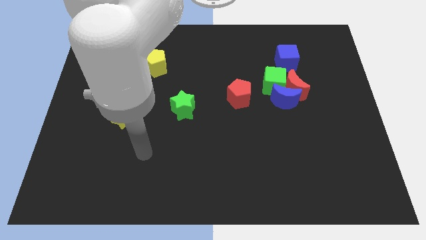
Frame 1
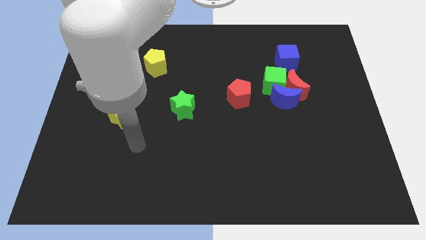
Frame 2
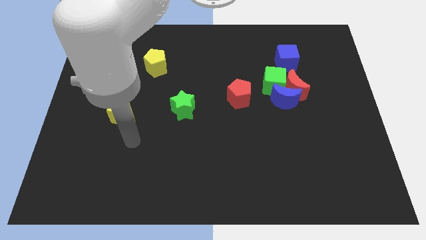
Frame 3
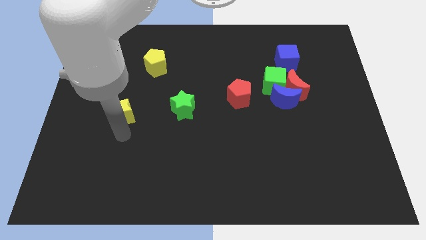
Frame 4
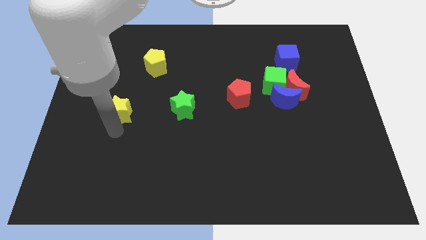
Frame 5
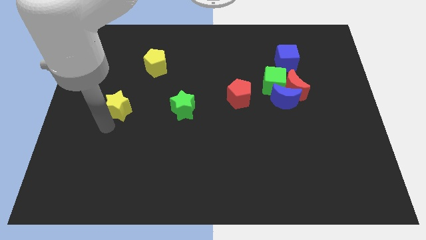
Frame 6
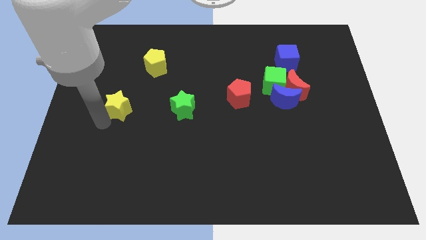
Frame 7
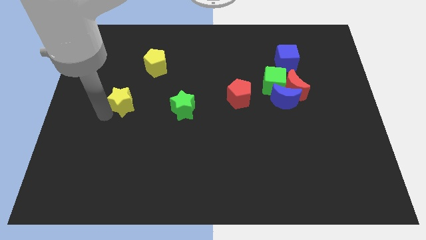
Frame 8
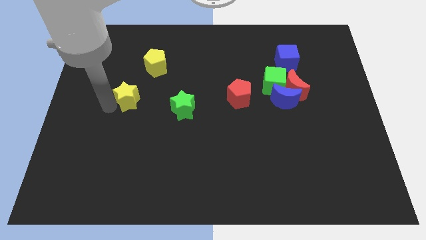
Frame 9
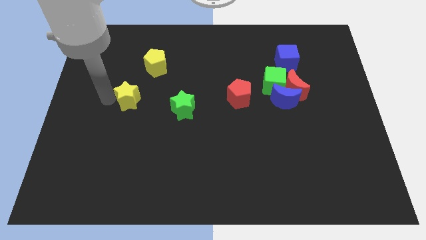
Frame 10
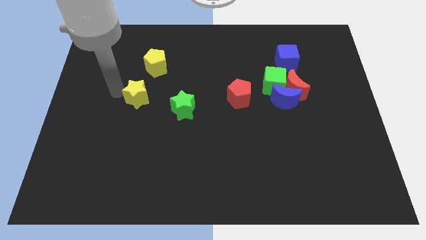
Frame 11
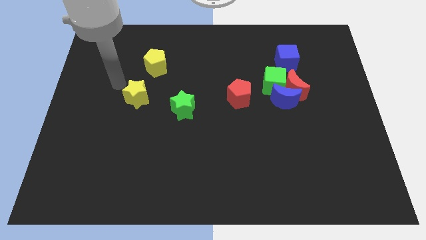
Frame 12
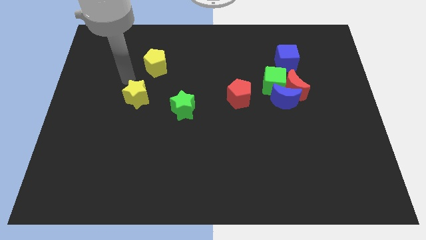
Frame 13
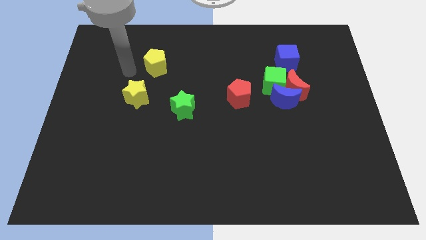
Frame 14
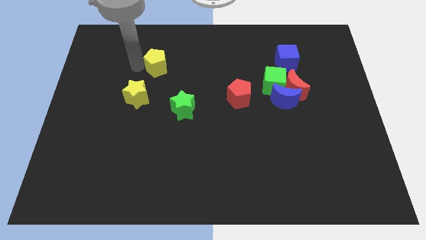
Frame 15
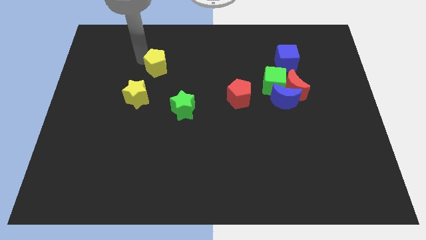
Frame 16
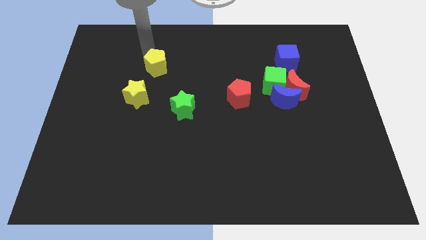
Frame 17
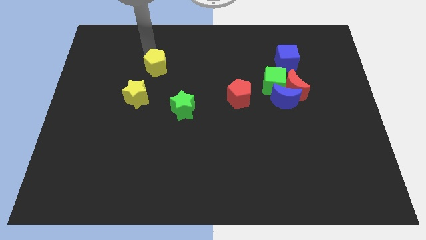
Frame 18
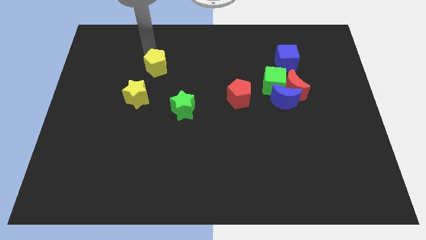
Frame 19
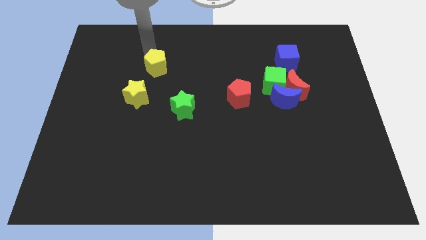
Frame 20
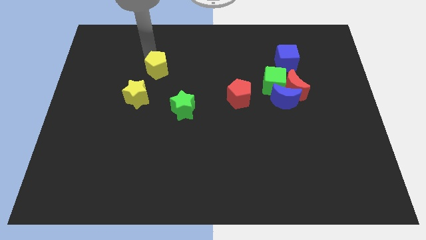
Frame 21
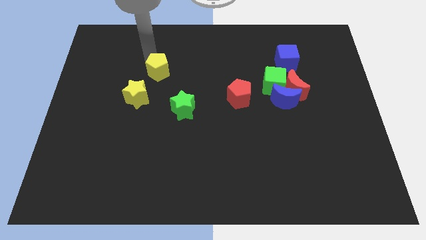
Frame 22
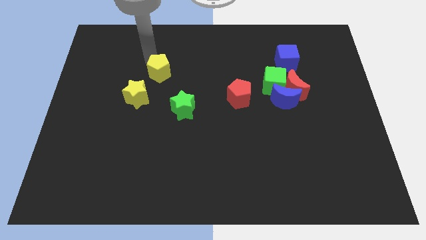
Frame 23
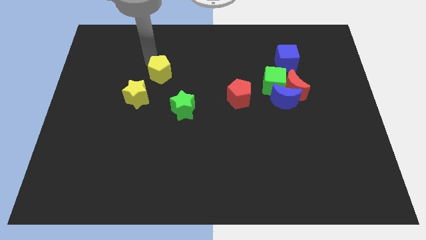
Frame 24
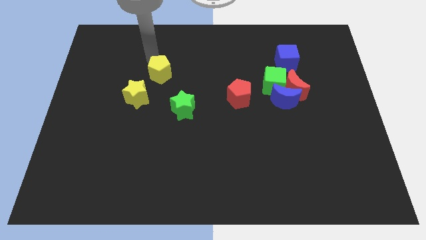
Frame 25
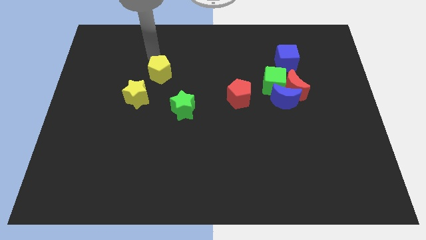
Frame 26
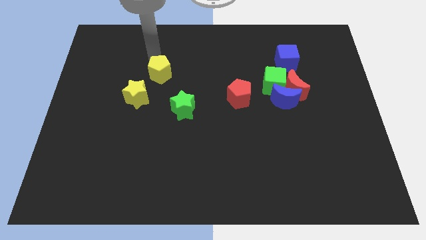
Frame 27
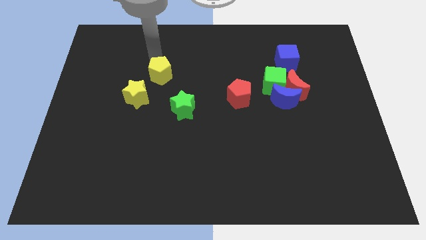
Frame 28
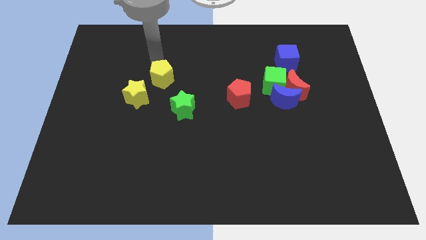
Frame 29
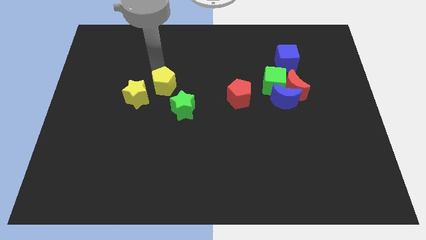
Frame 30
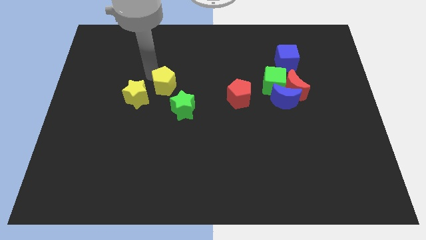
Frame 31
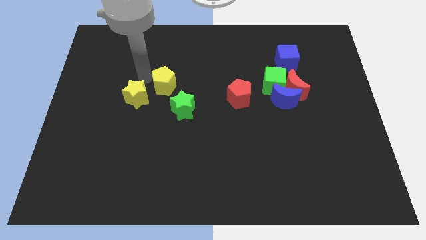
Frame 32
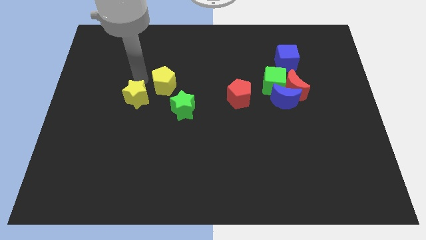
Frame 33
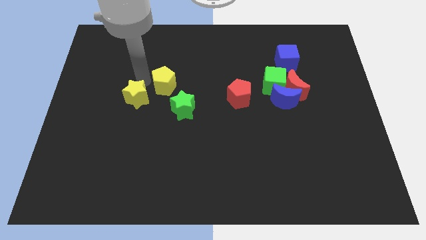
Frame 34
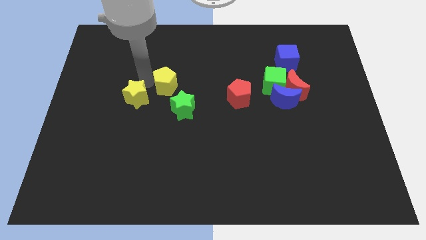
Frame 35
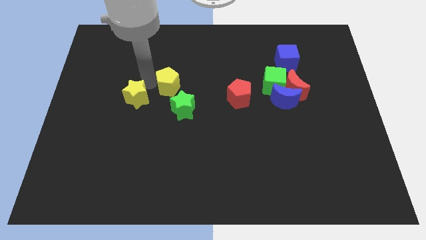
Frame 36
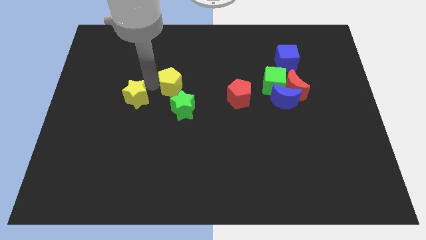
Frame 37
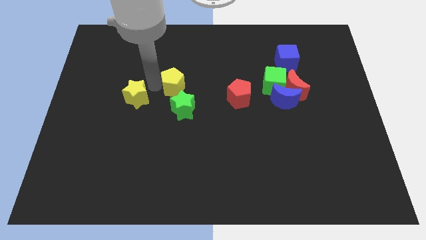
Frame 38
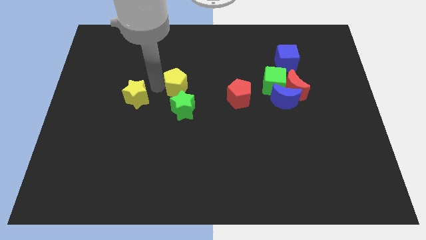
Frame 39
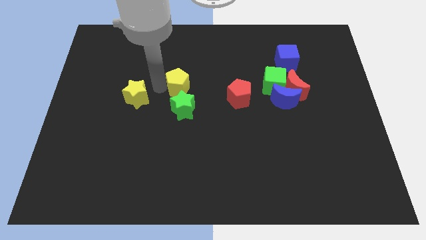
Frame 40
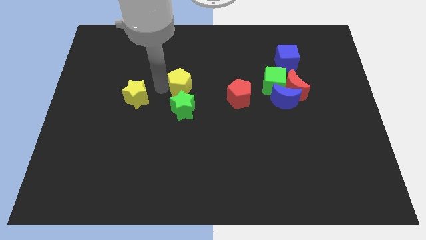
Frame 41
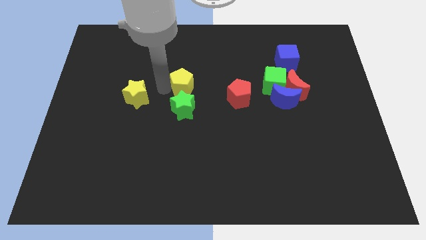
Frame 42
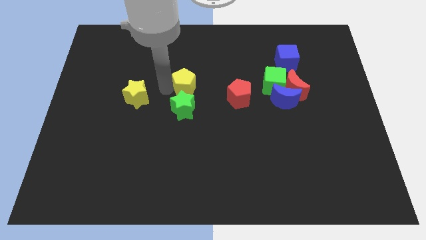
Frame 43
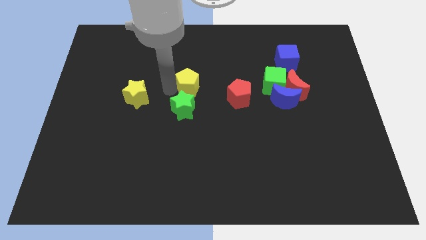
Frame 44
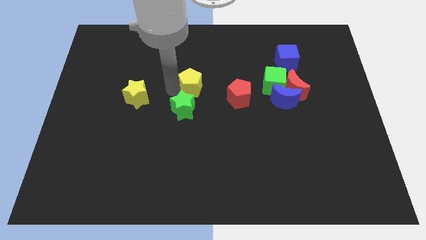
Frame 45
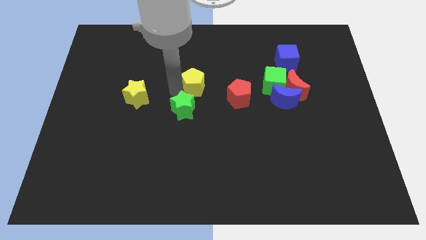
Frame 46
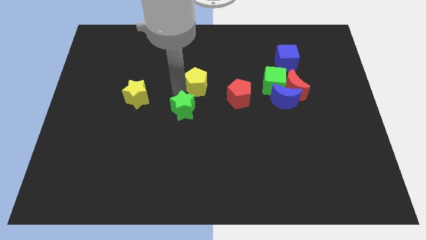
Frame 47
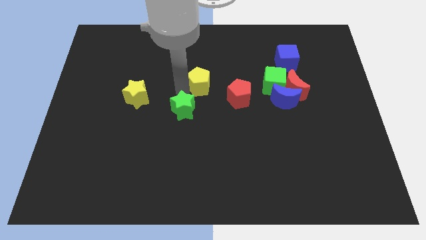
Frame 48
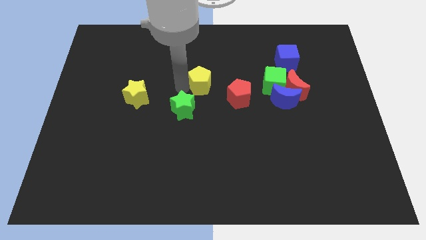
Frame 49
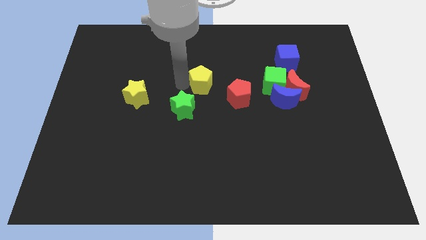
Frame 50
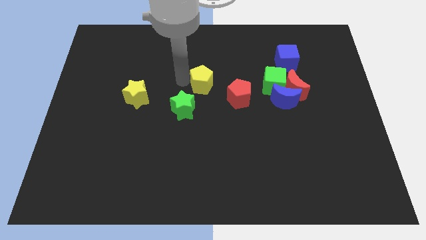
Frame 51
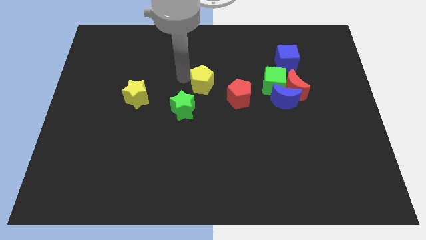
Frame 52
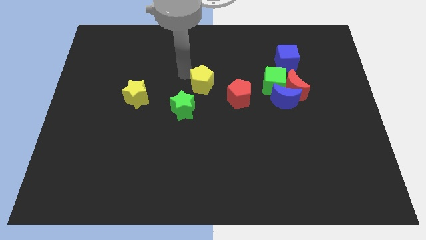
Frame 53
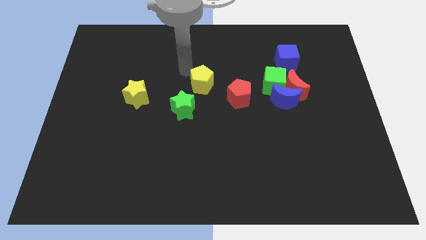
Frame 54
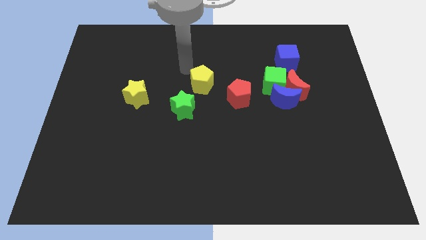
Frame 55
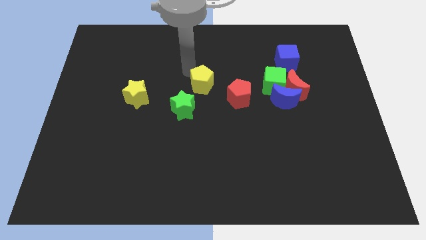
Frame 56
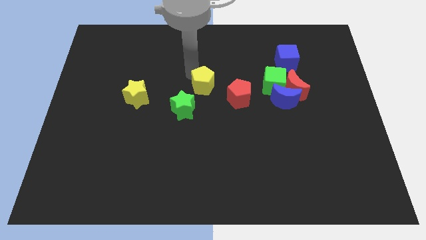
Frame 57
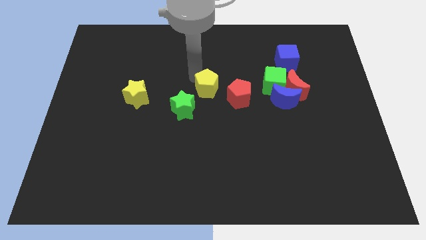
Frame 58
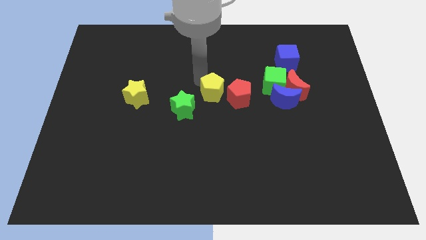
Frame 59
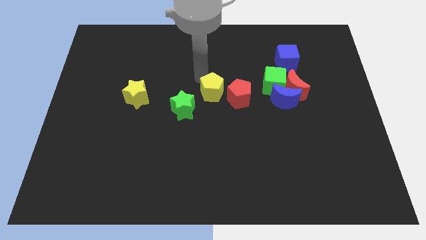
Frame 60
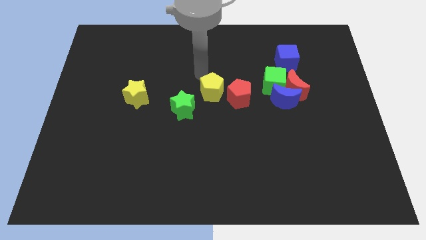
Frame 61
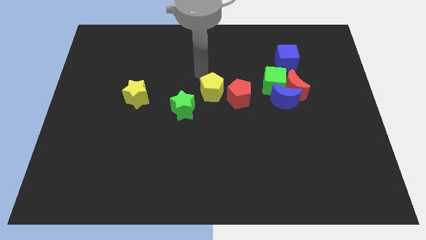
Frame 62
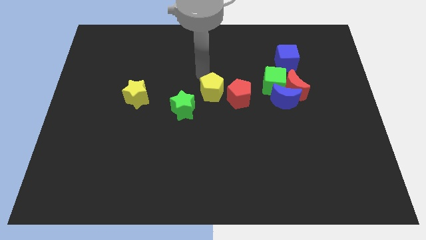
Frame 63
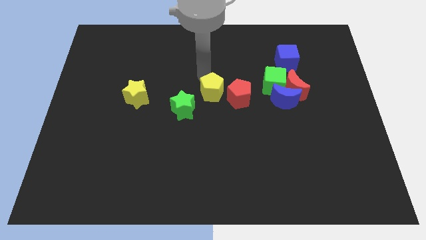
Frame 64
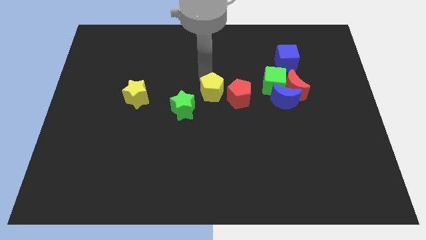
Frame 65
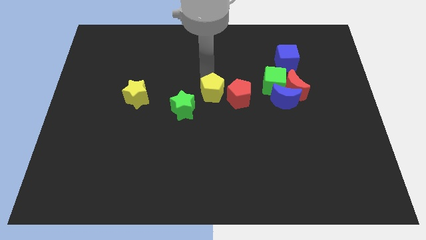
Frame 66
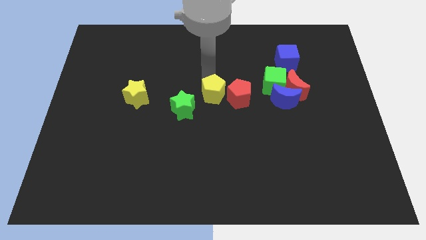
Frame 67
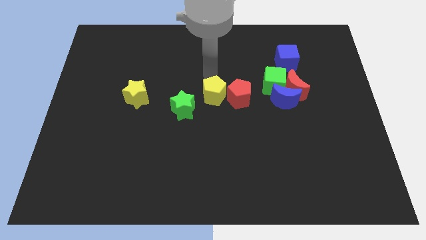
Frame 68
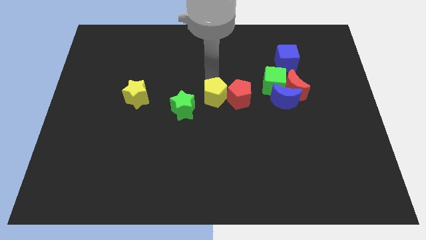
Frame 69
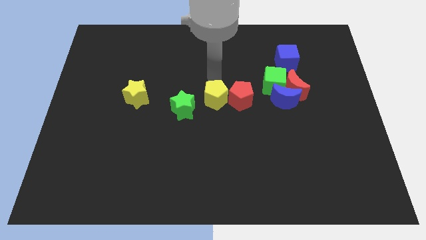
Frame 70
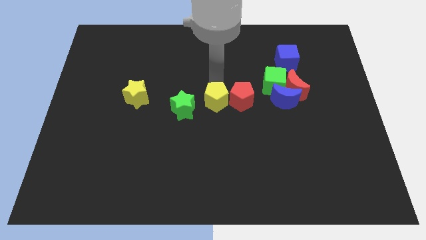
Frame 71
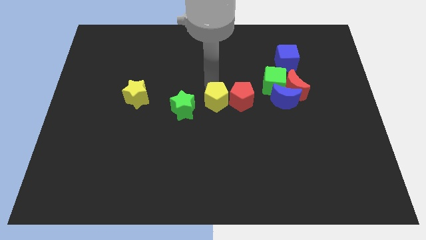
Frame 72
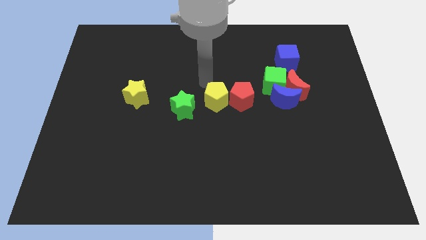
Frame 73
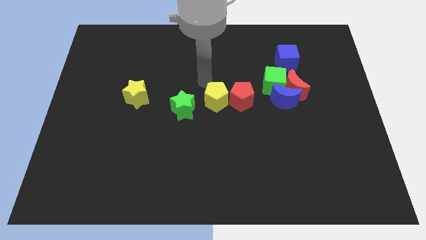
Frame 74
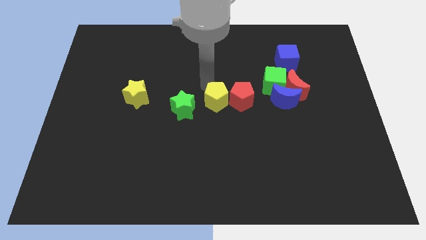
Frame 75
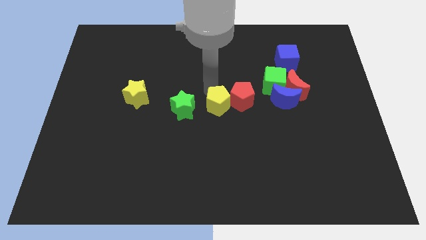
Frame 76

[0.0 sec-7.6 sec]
slide the yellow pentagon down and then to the right

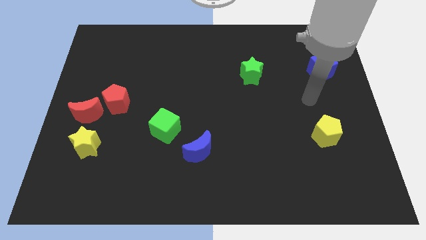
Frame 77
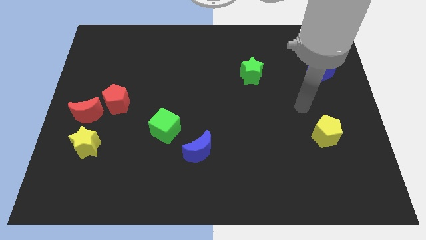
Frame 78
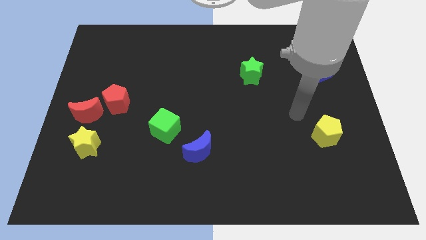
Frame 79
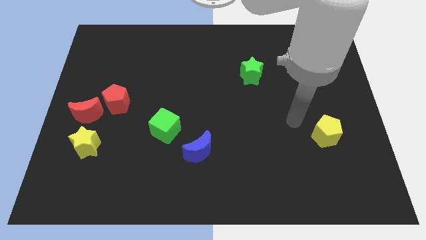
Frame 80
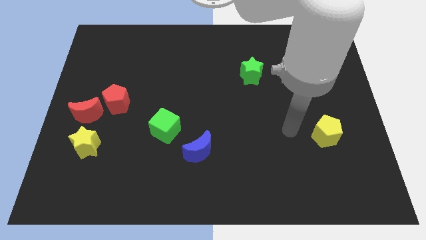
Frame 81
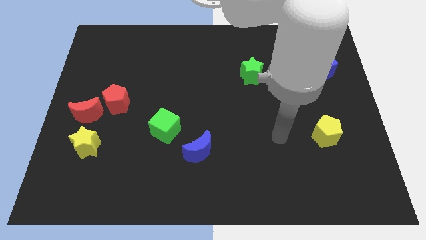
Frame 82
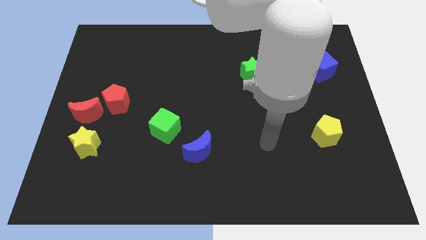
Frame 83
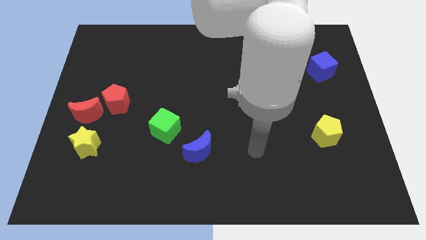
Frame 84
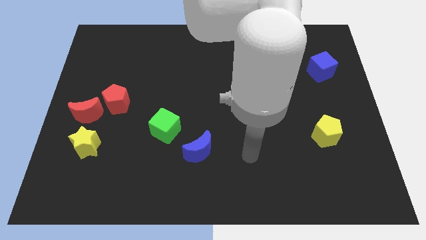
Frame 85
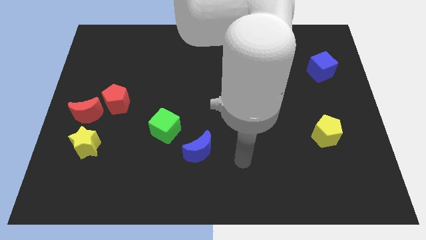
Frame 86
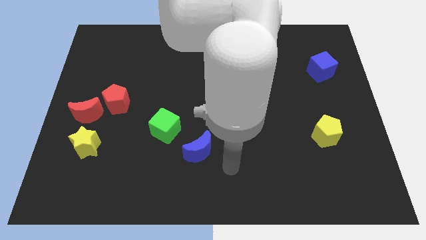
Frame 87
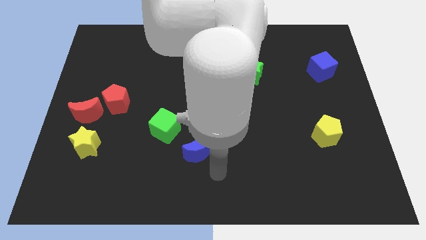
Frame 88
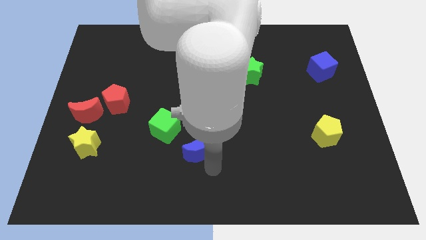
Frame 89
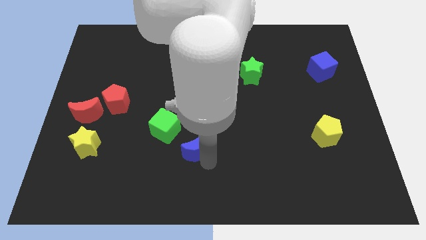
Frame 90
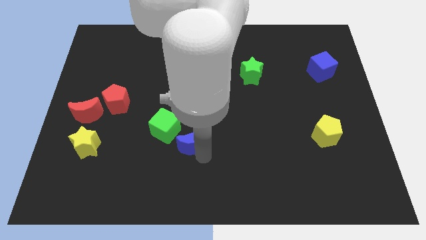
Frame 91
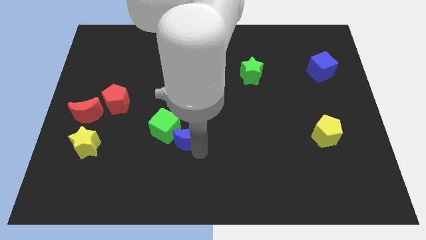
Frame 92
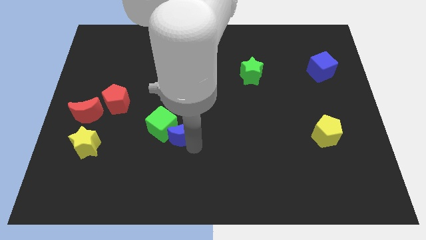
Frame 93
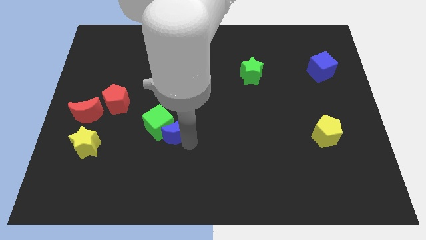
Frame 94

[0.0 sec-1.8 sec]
move the blue moon up and then to the left a little
